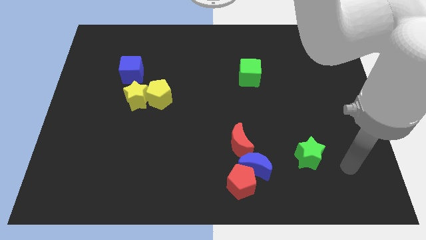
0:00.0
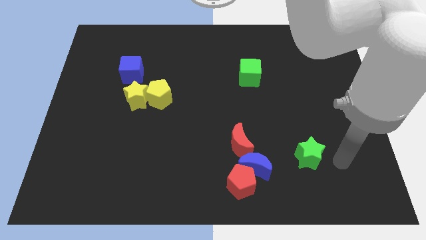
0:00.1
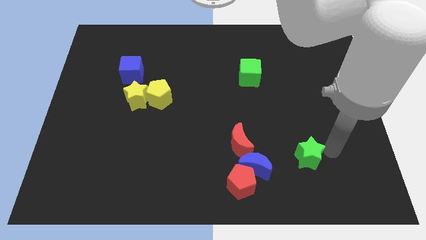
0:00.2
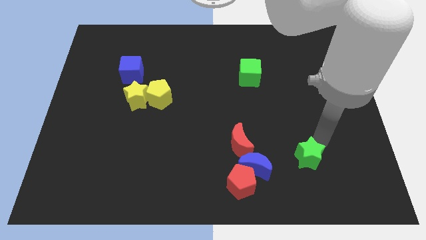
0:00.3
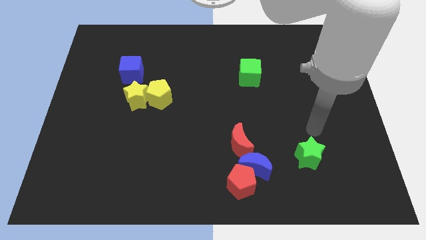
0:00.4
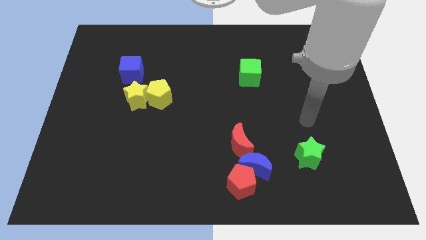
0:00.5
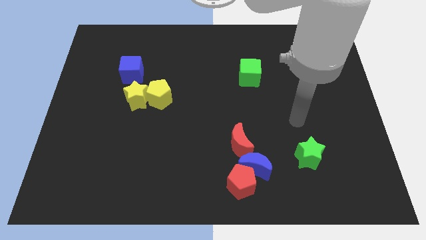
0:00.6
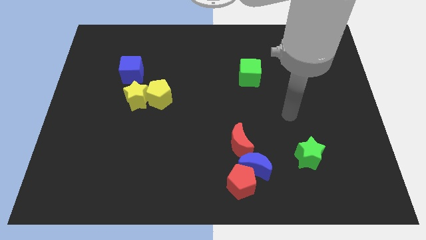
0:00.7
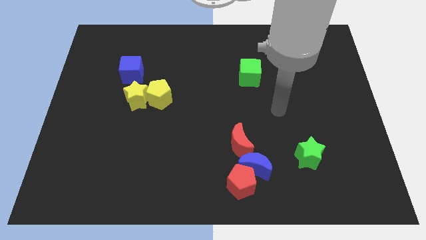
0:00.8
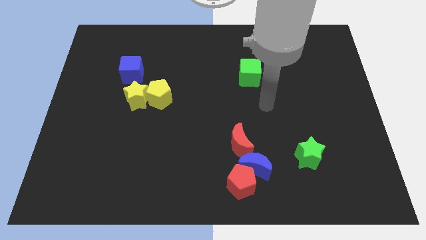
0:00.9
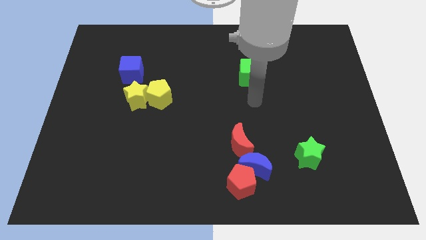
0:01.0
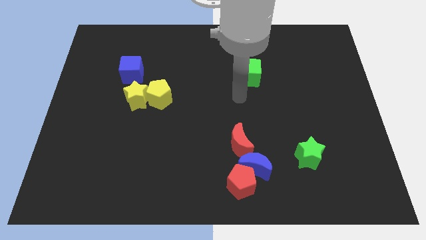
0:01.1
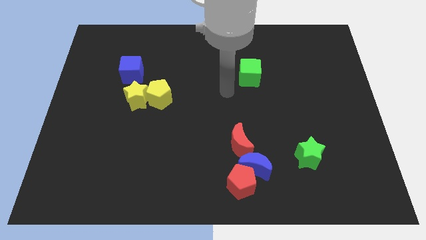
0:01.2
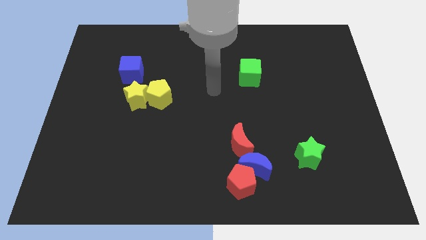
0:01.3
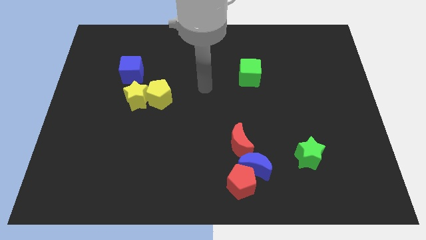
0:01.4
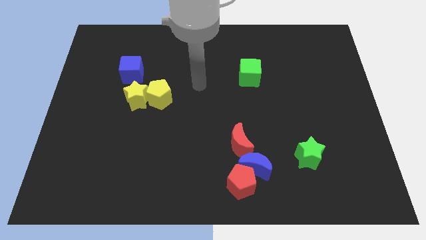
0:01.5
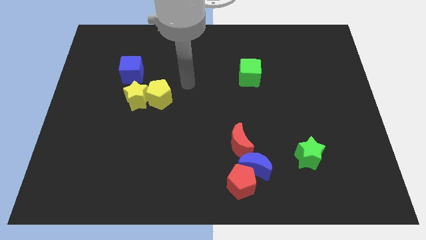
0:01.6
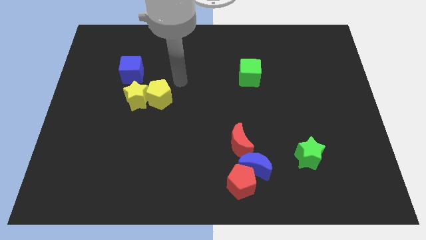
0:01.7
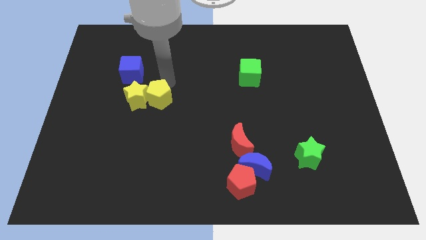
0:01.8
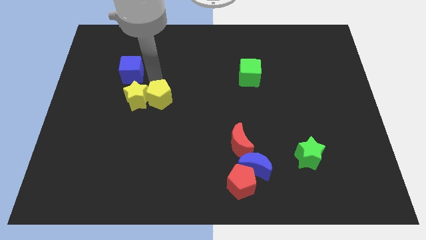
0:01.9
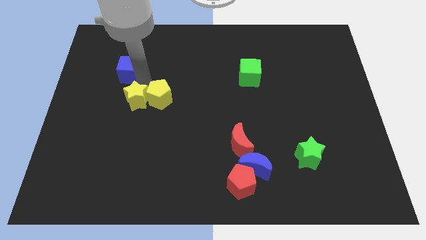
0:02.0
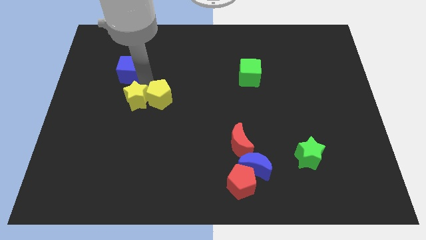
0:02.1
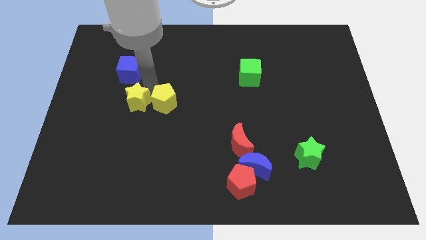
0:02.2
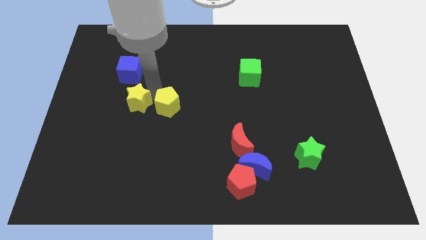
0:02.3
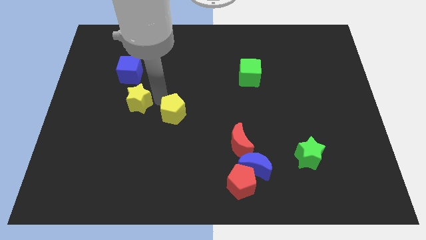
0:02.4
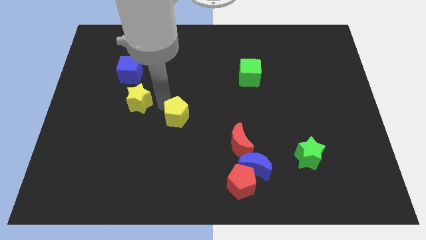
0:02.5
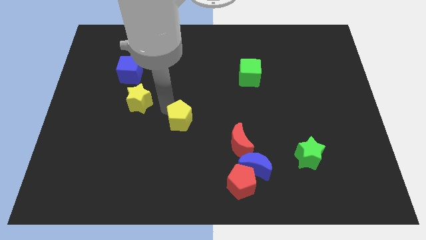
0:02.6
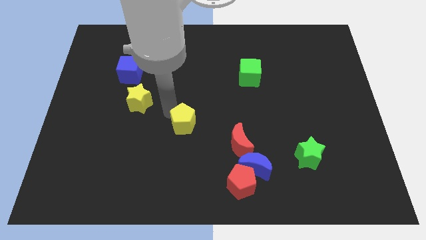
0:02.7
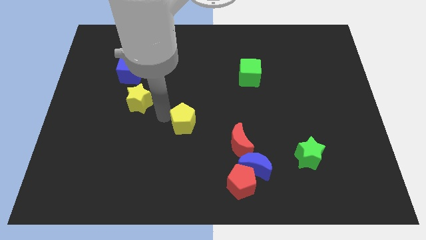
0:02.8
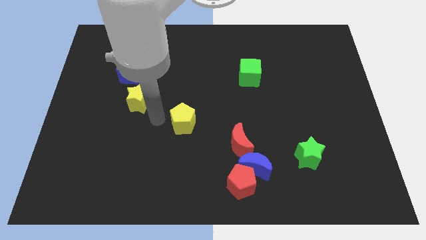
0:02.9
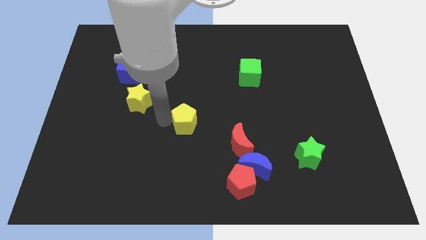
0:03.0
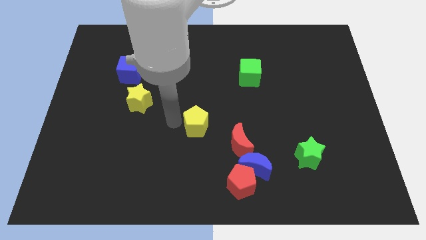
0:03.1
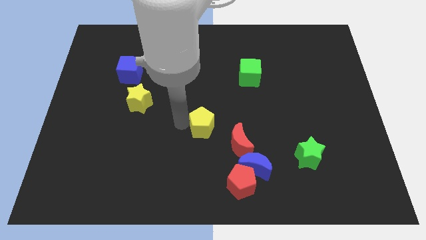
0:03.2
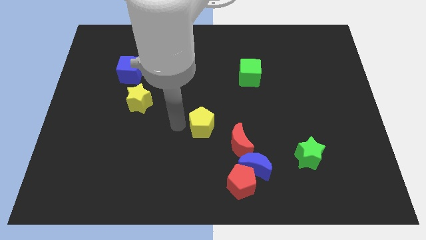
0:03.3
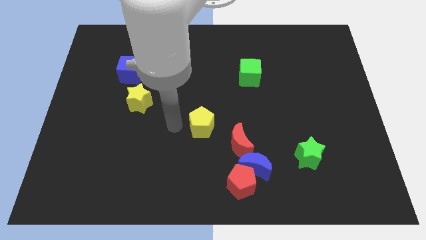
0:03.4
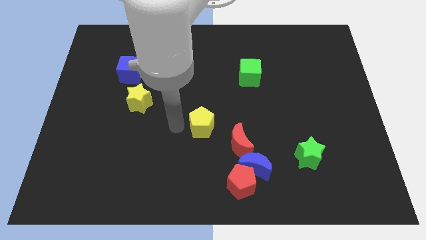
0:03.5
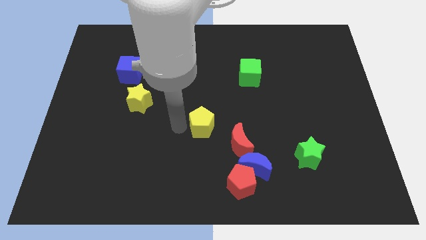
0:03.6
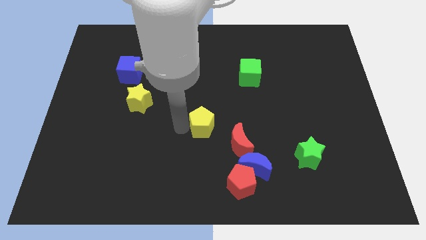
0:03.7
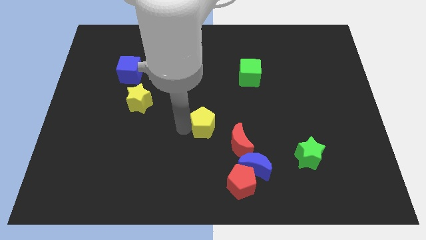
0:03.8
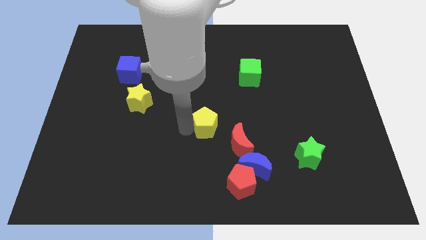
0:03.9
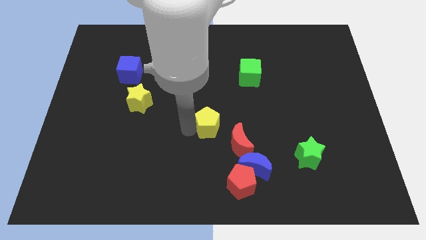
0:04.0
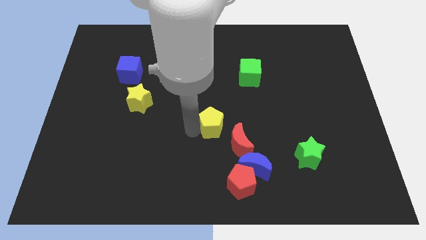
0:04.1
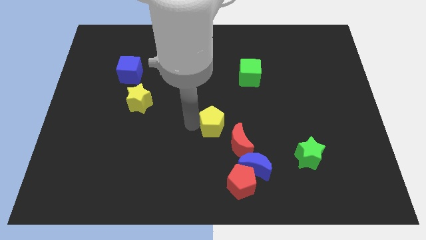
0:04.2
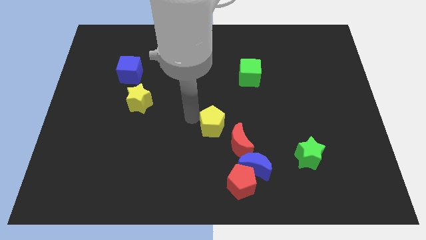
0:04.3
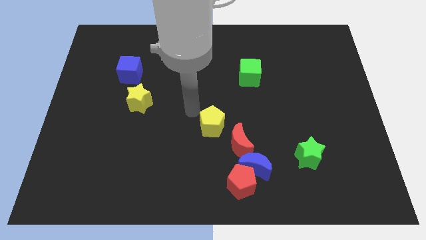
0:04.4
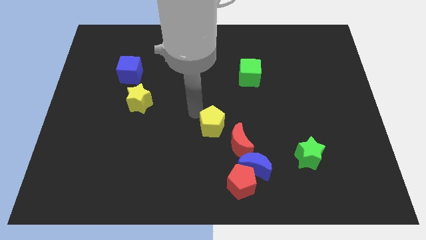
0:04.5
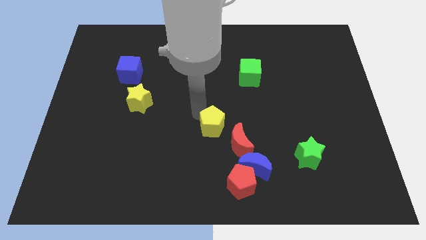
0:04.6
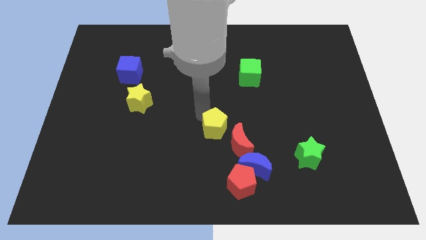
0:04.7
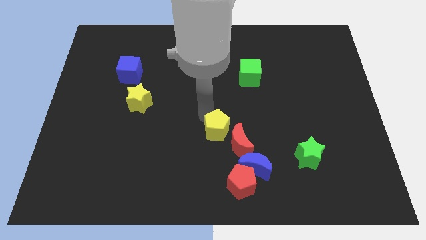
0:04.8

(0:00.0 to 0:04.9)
push the yellow pentagon close to the red moon

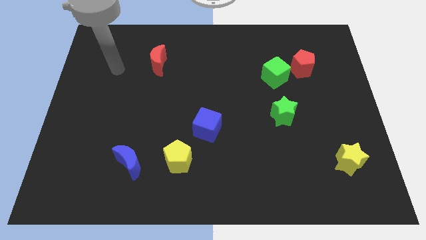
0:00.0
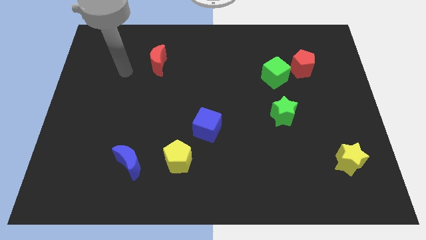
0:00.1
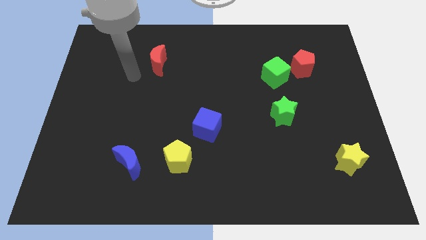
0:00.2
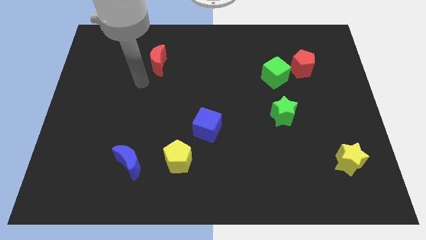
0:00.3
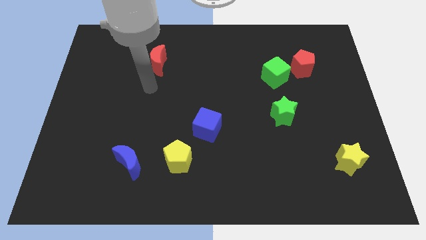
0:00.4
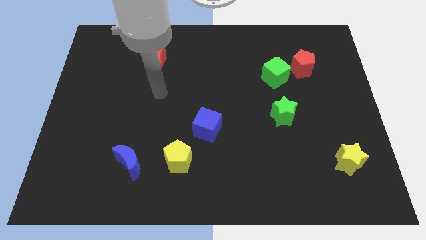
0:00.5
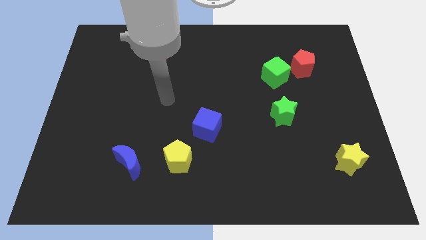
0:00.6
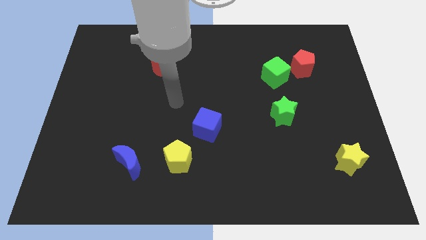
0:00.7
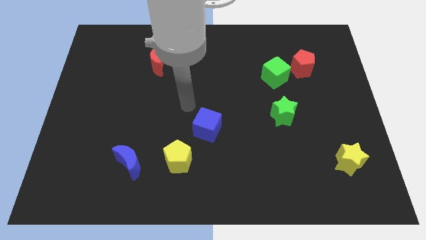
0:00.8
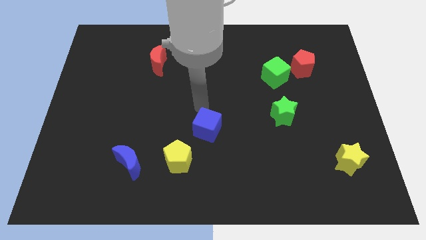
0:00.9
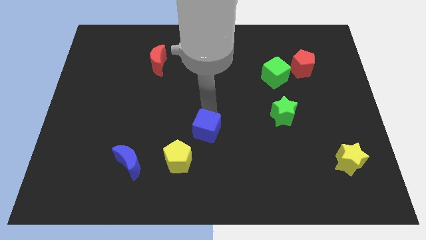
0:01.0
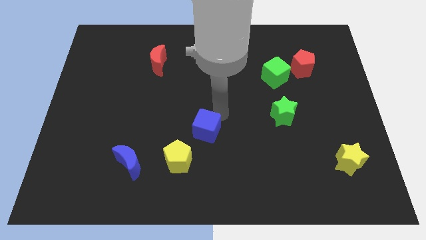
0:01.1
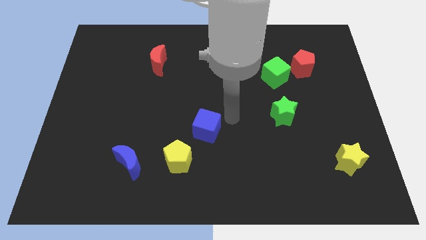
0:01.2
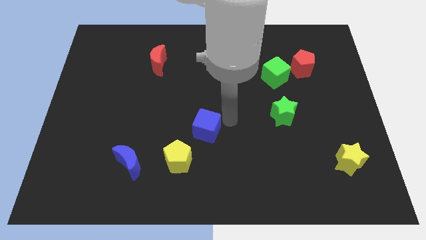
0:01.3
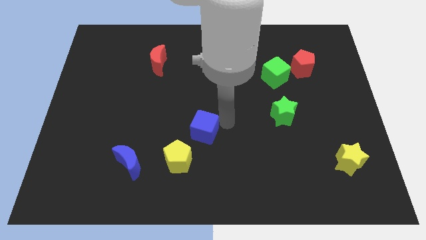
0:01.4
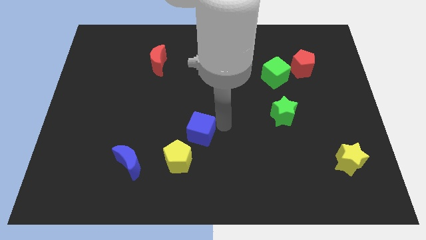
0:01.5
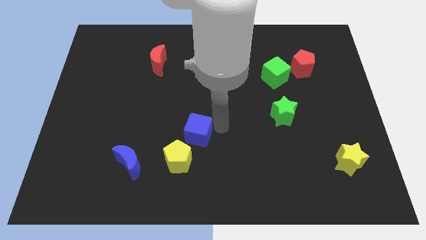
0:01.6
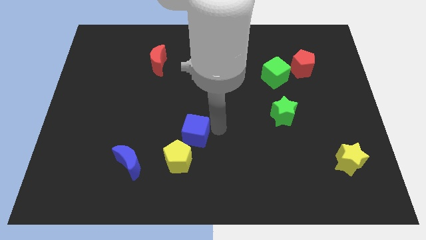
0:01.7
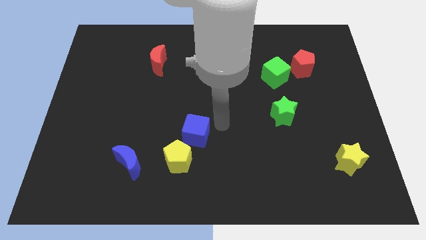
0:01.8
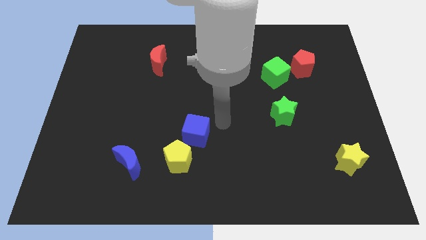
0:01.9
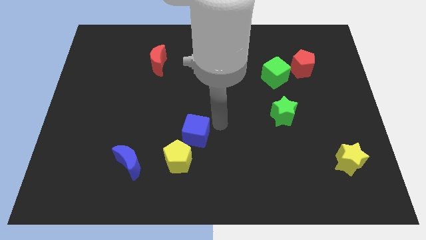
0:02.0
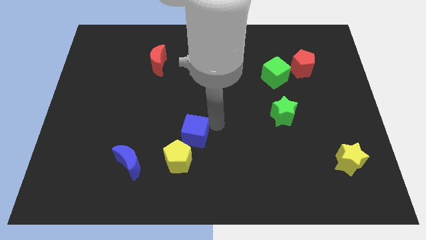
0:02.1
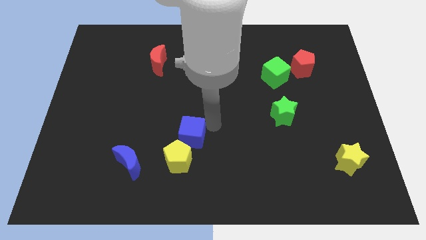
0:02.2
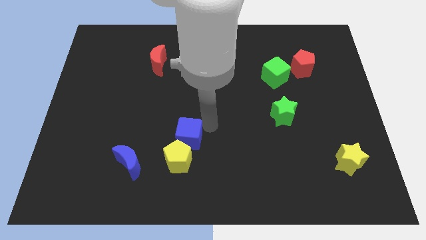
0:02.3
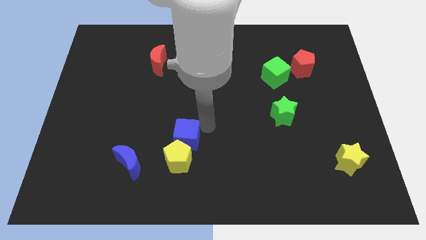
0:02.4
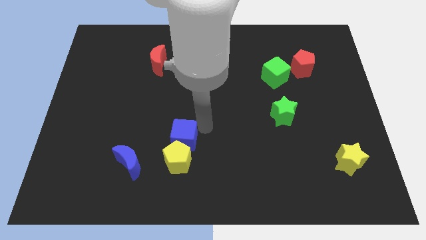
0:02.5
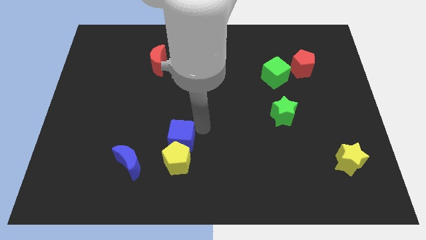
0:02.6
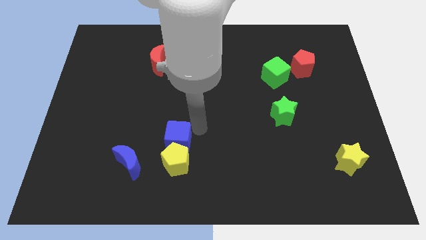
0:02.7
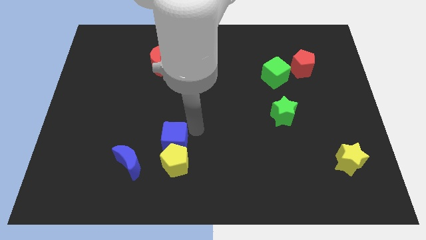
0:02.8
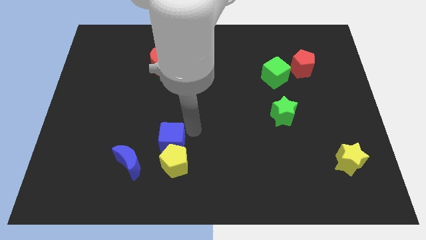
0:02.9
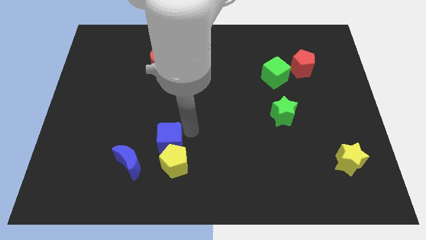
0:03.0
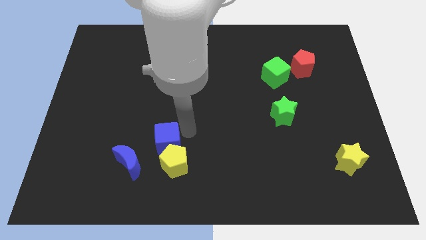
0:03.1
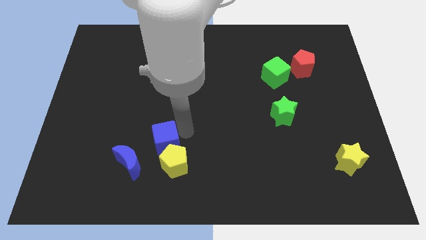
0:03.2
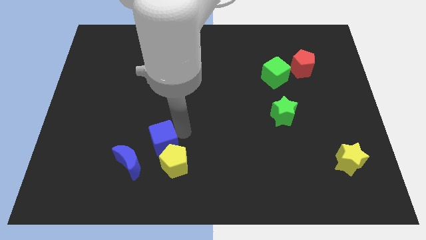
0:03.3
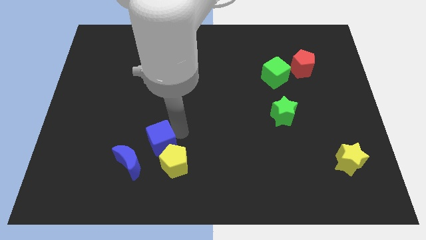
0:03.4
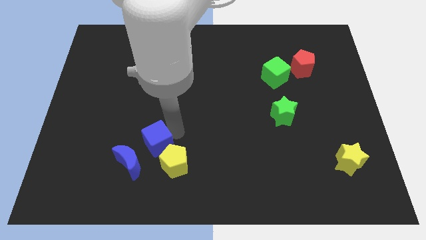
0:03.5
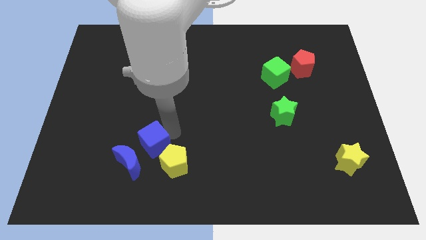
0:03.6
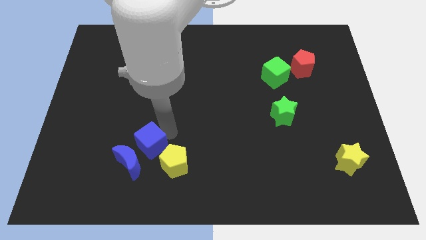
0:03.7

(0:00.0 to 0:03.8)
move the blue cube to the blue moon
